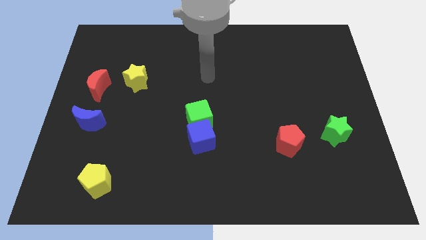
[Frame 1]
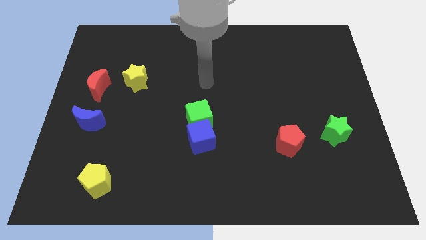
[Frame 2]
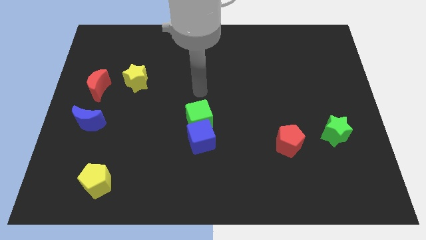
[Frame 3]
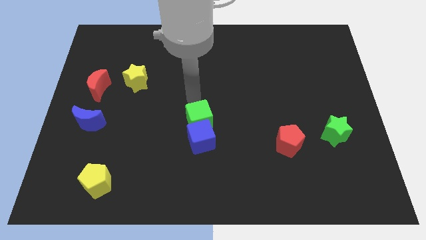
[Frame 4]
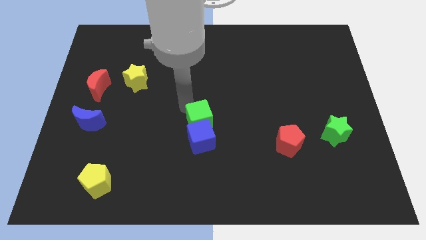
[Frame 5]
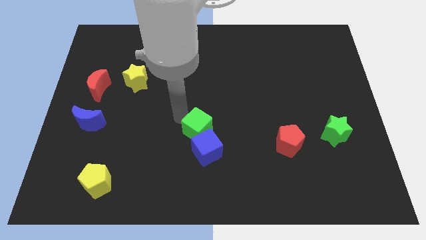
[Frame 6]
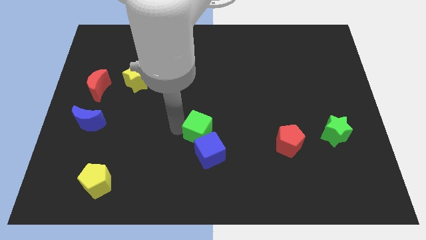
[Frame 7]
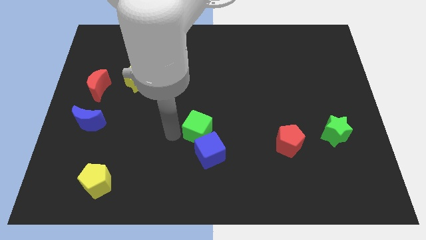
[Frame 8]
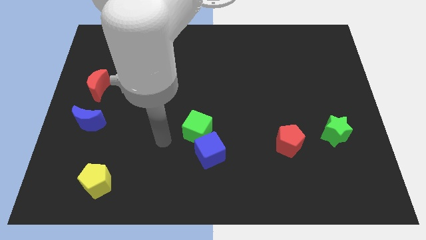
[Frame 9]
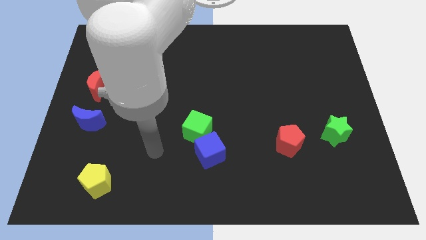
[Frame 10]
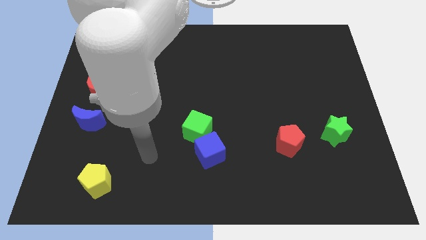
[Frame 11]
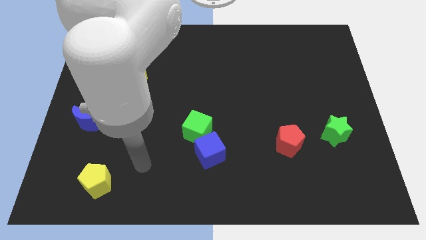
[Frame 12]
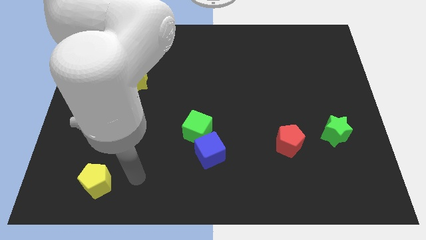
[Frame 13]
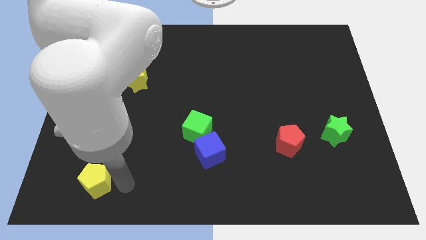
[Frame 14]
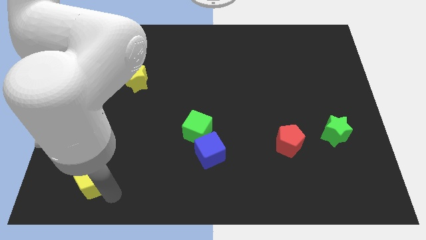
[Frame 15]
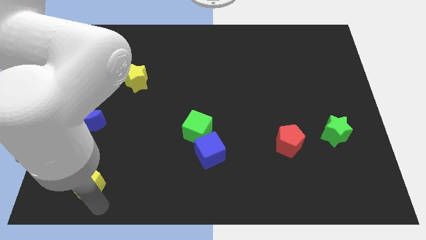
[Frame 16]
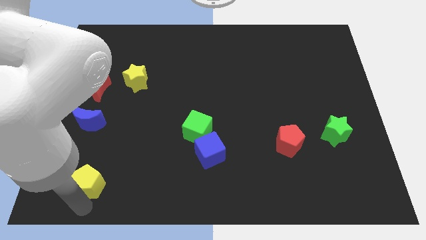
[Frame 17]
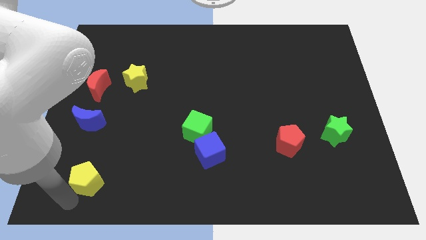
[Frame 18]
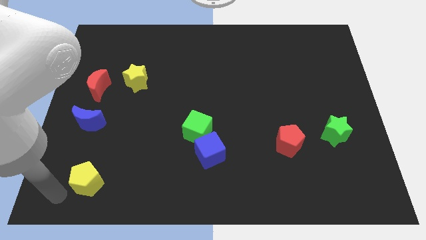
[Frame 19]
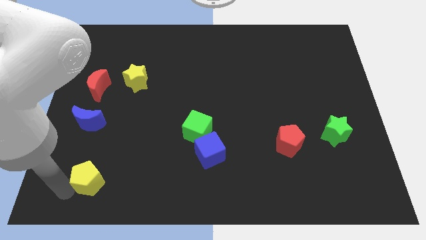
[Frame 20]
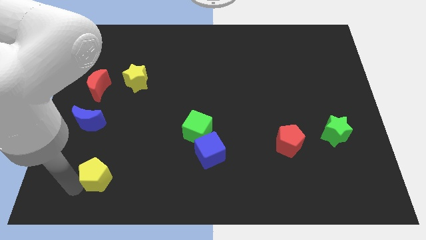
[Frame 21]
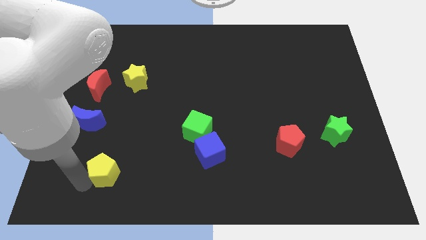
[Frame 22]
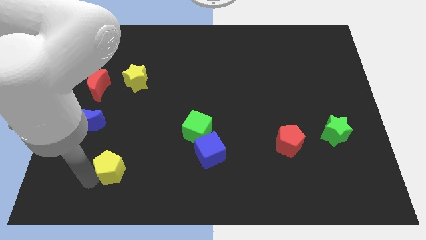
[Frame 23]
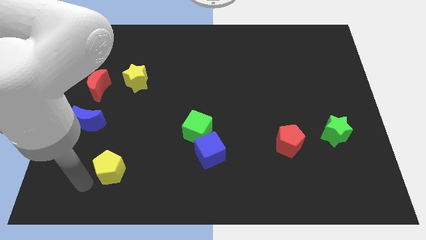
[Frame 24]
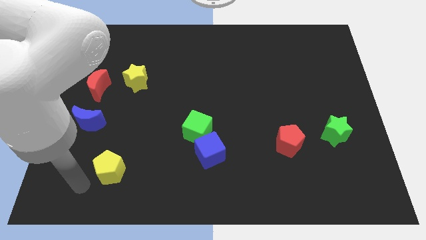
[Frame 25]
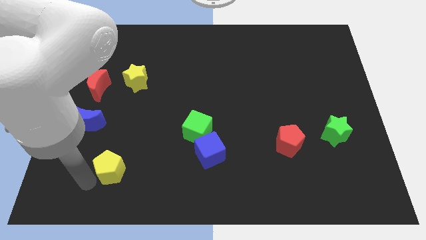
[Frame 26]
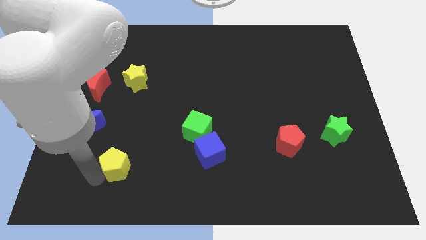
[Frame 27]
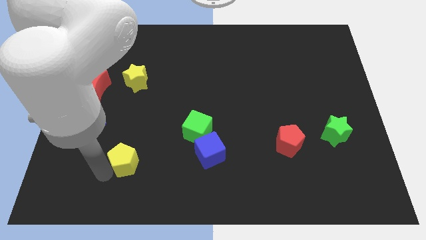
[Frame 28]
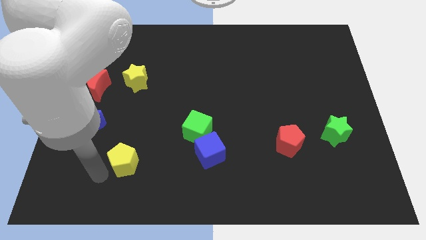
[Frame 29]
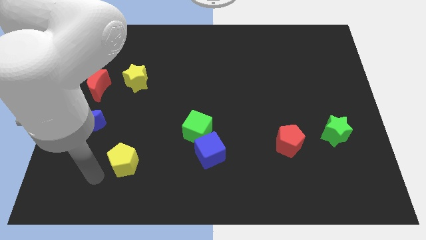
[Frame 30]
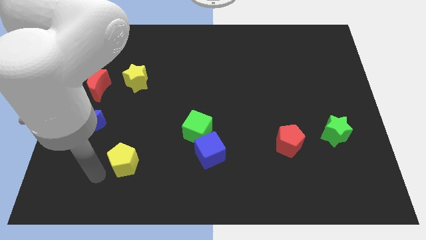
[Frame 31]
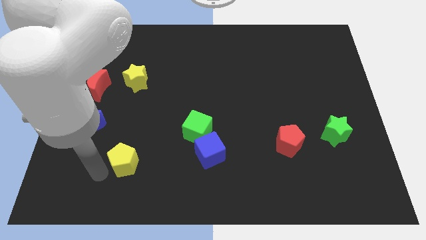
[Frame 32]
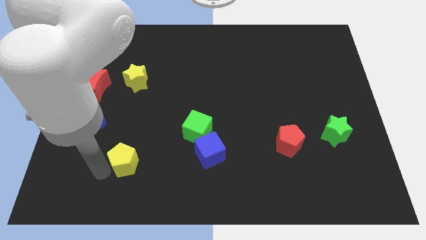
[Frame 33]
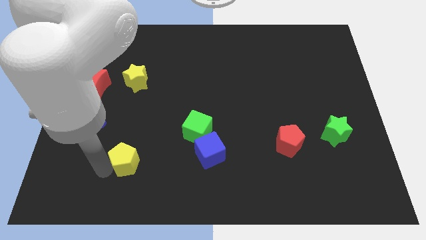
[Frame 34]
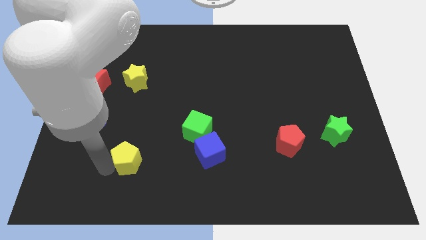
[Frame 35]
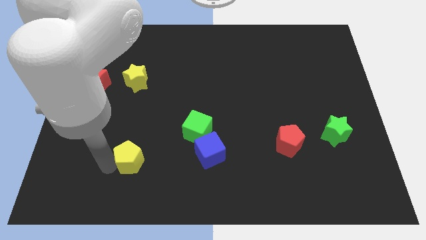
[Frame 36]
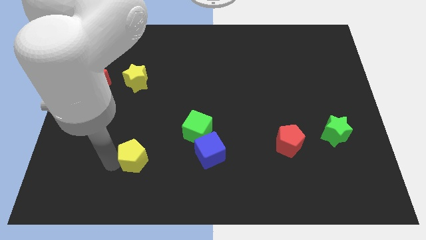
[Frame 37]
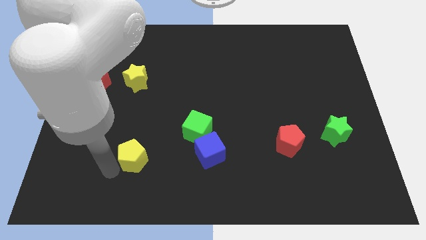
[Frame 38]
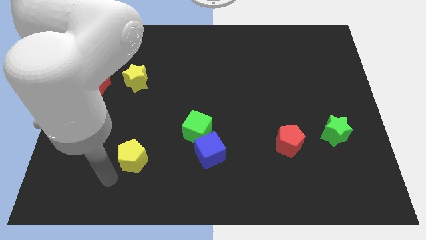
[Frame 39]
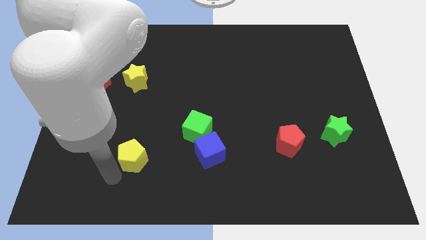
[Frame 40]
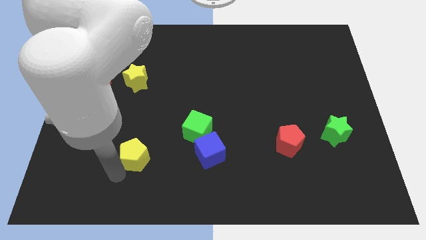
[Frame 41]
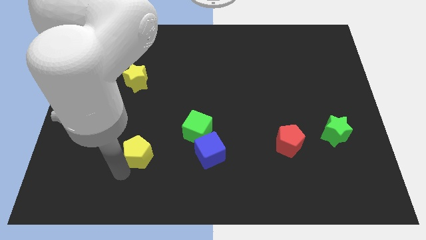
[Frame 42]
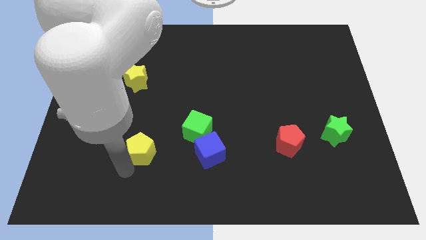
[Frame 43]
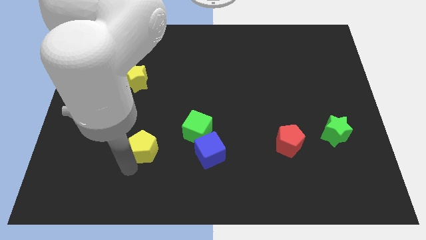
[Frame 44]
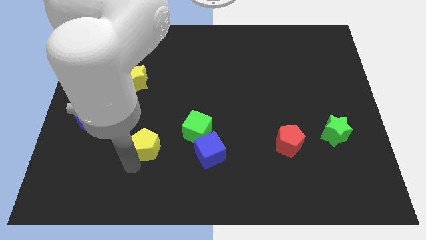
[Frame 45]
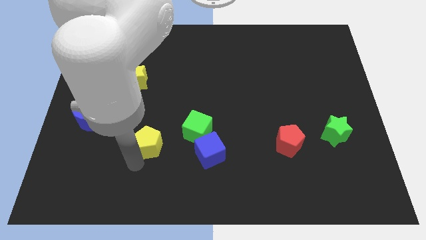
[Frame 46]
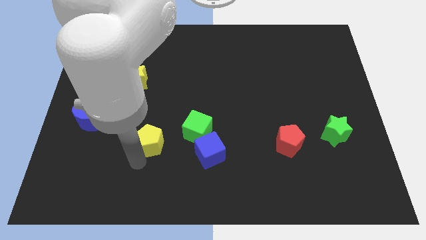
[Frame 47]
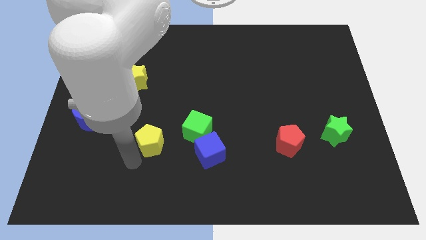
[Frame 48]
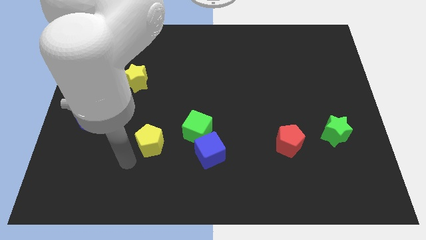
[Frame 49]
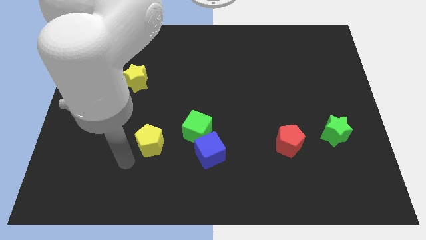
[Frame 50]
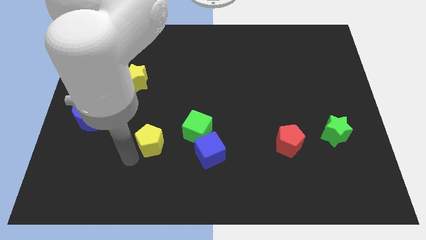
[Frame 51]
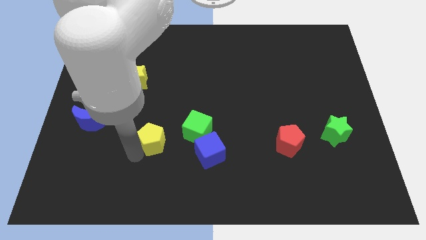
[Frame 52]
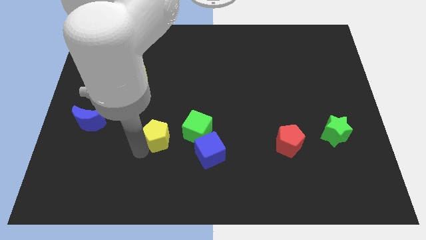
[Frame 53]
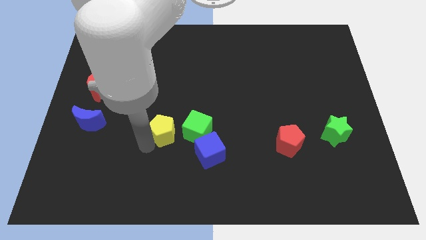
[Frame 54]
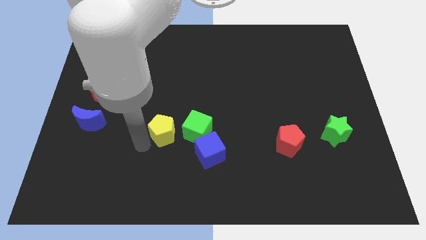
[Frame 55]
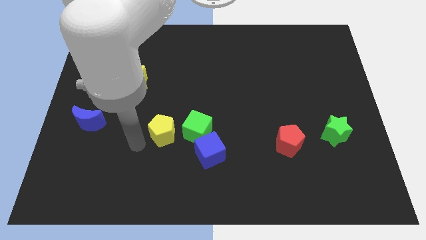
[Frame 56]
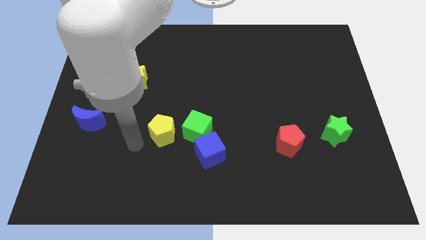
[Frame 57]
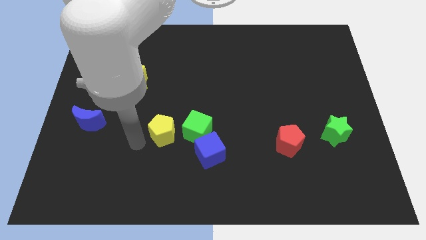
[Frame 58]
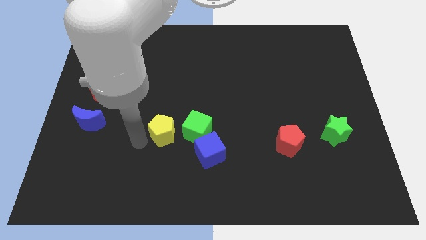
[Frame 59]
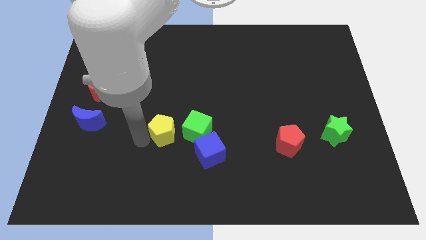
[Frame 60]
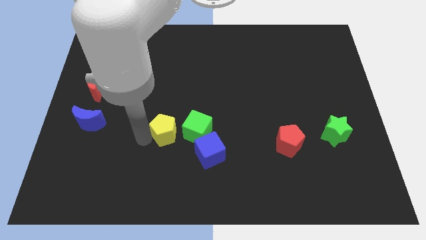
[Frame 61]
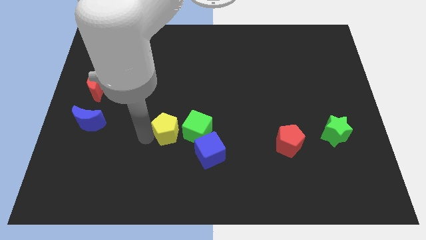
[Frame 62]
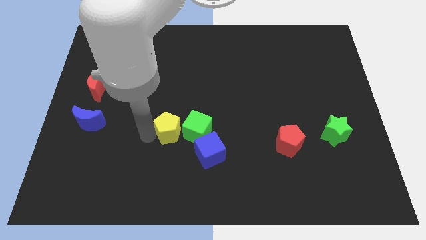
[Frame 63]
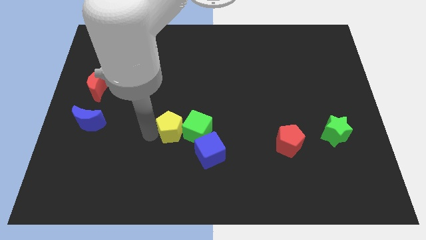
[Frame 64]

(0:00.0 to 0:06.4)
put the yellow pentagon to the green cube

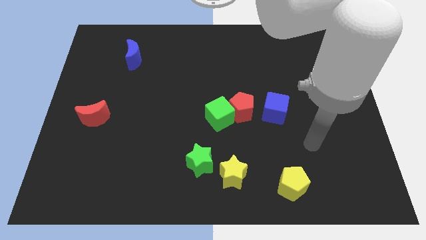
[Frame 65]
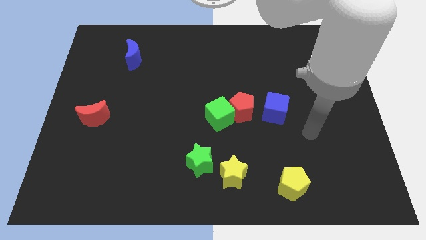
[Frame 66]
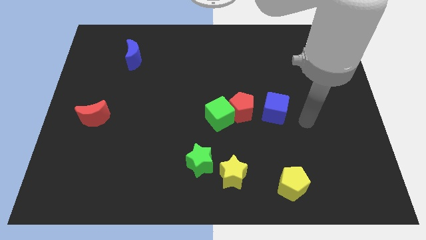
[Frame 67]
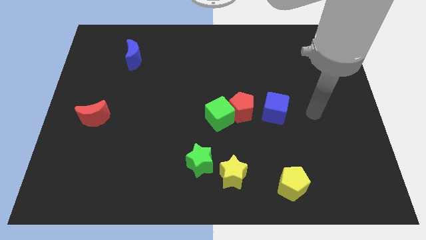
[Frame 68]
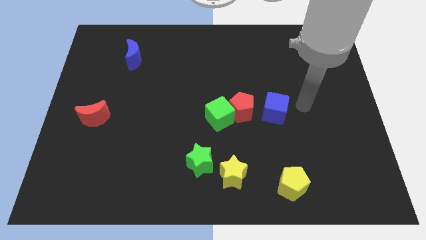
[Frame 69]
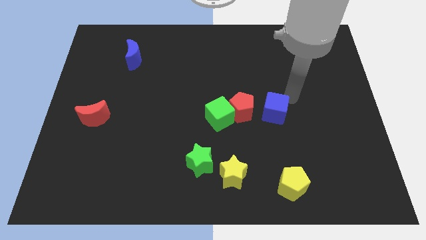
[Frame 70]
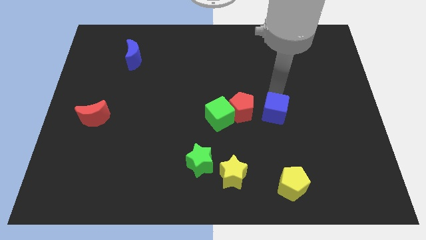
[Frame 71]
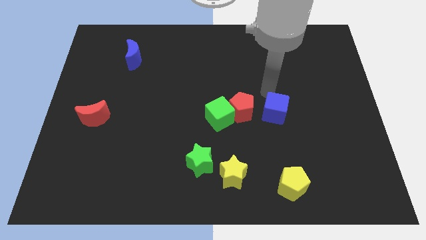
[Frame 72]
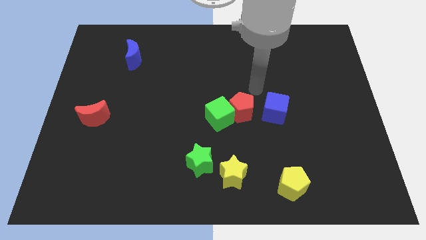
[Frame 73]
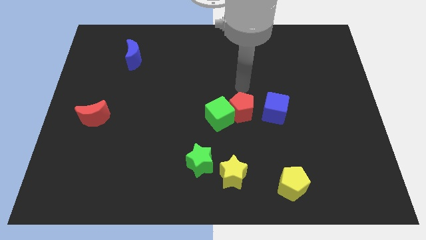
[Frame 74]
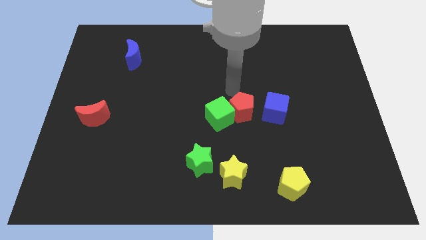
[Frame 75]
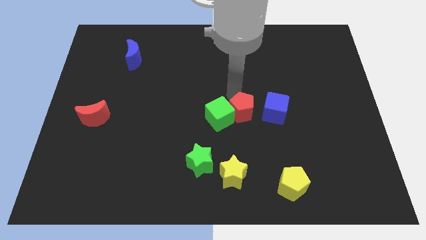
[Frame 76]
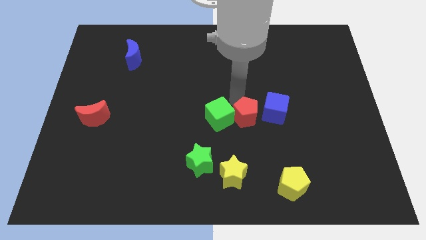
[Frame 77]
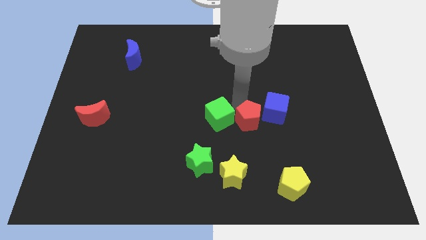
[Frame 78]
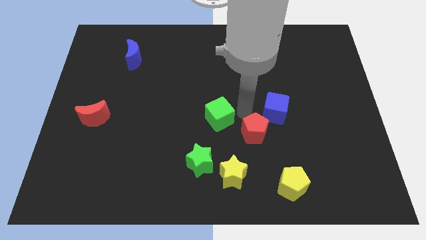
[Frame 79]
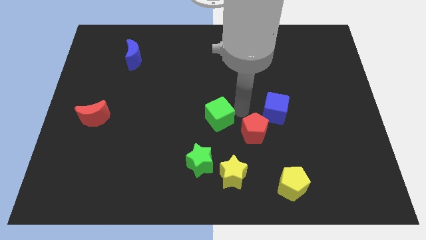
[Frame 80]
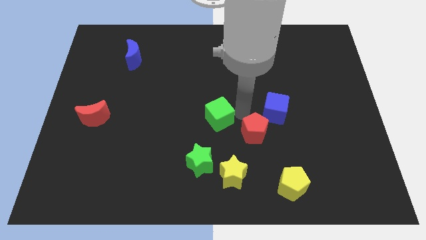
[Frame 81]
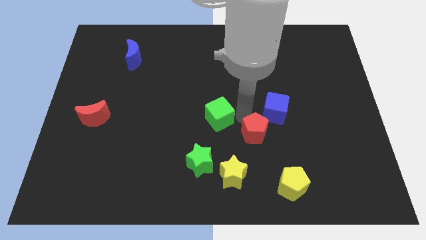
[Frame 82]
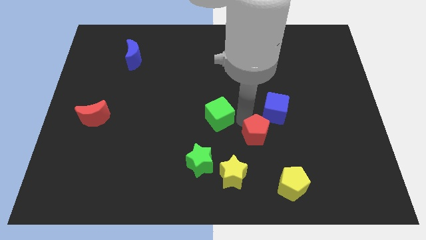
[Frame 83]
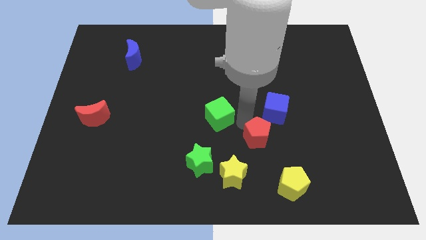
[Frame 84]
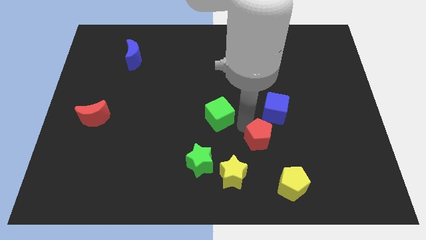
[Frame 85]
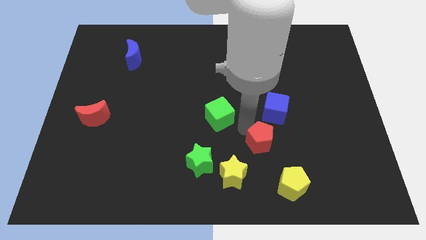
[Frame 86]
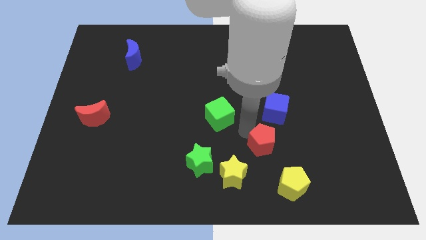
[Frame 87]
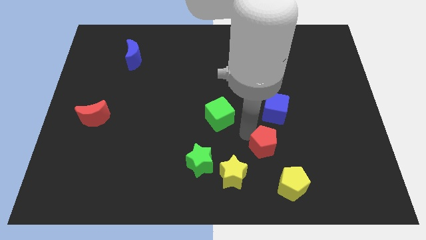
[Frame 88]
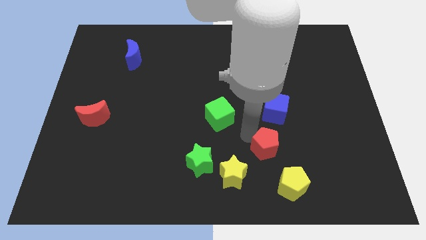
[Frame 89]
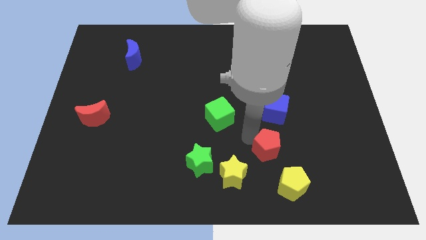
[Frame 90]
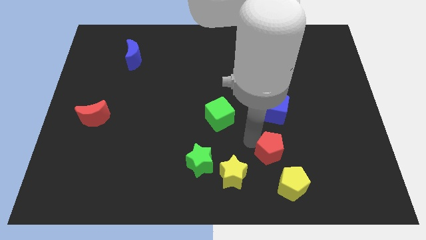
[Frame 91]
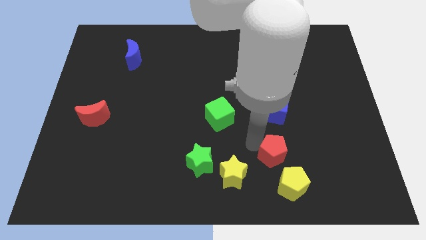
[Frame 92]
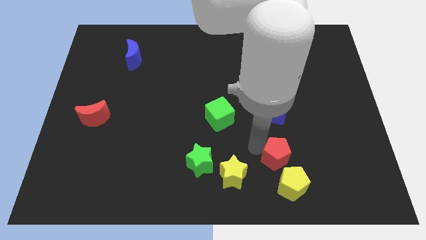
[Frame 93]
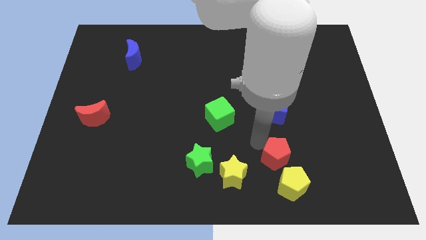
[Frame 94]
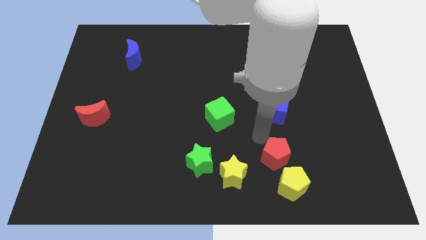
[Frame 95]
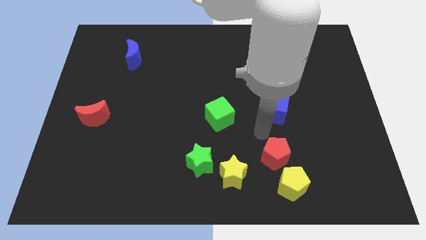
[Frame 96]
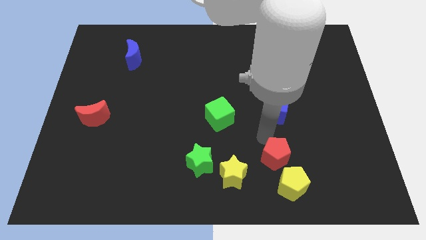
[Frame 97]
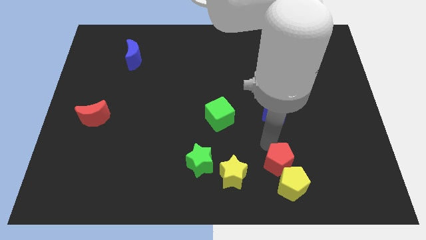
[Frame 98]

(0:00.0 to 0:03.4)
push the red pentagon next to the yellow pentagon
